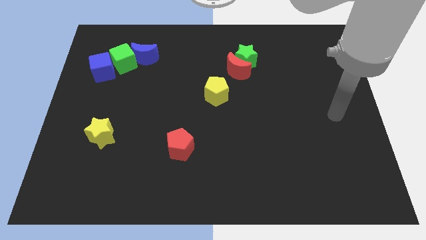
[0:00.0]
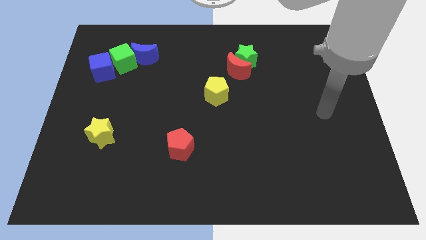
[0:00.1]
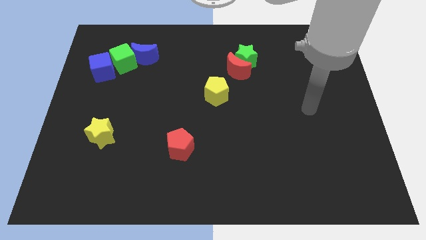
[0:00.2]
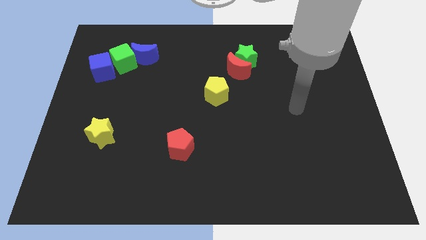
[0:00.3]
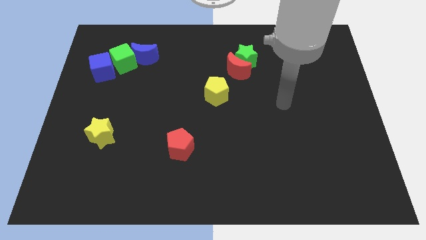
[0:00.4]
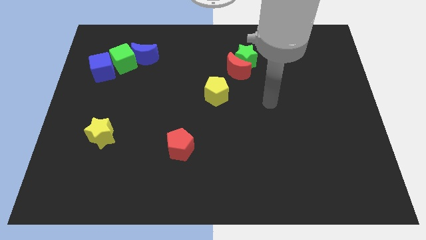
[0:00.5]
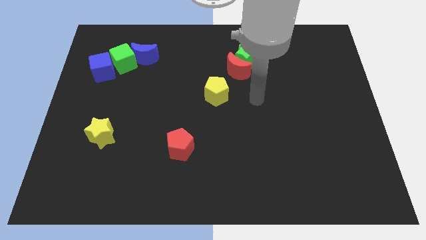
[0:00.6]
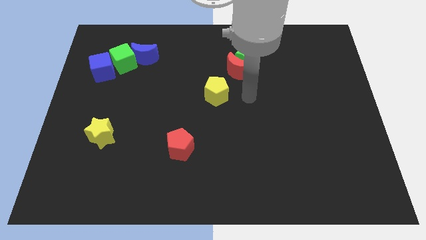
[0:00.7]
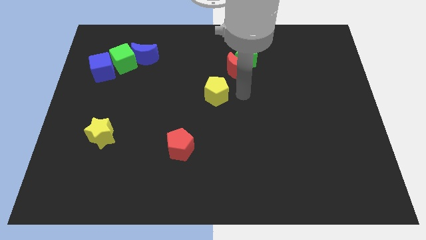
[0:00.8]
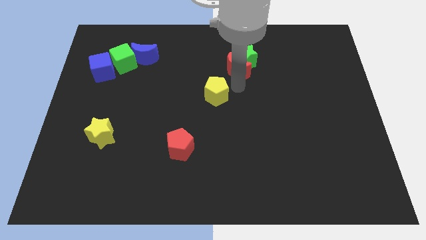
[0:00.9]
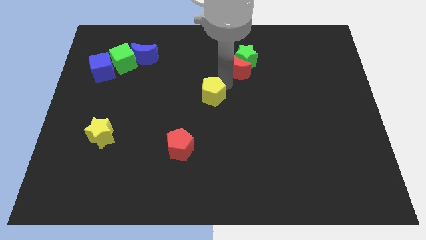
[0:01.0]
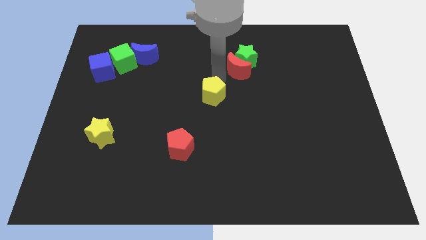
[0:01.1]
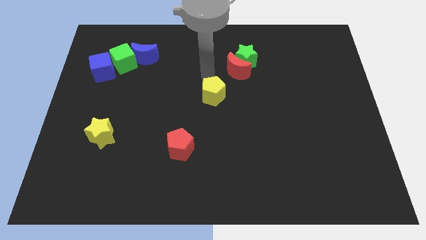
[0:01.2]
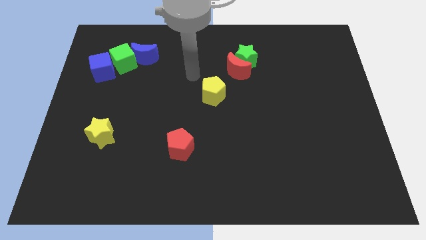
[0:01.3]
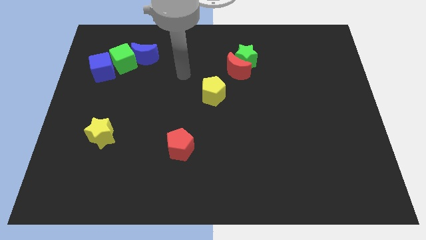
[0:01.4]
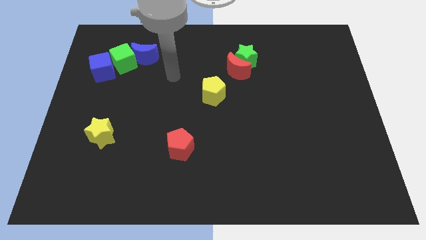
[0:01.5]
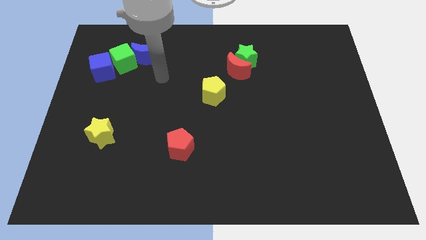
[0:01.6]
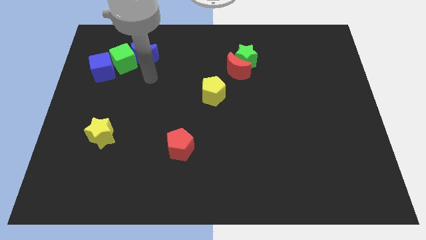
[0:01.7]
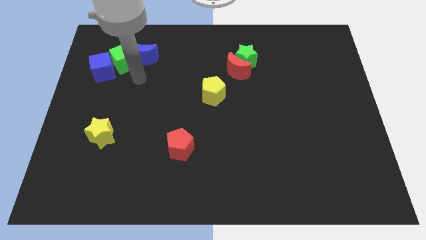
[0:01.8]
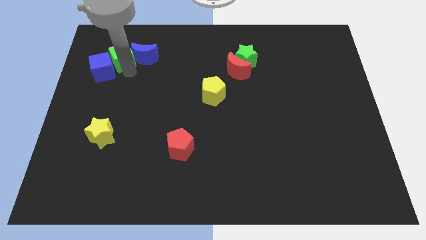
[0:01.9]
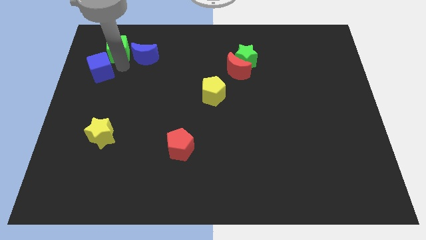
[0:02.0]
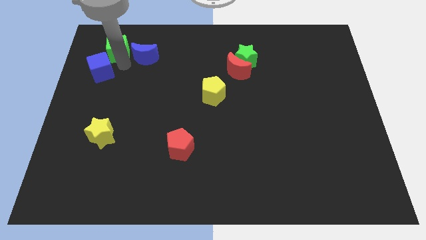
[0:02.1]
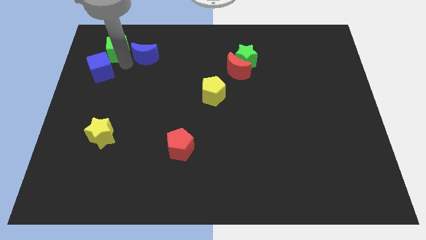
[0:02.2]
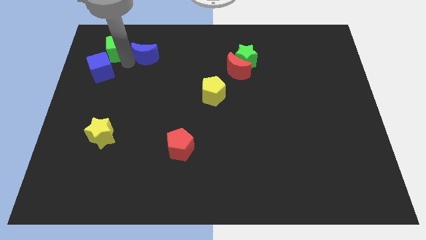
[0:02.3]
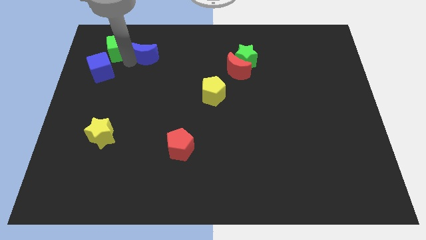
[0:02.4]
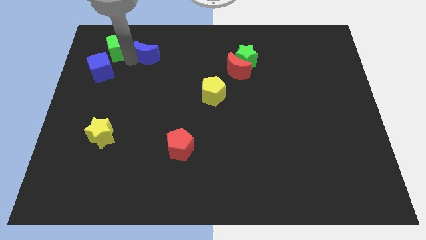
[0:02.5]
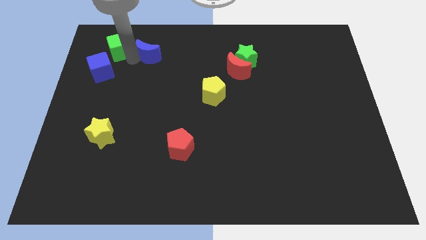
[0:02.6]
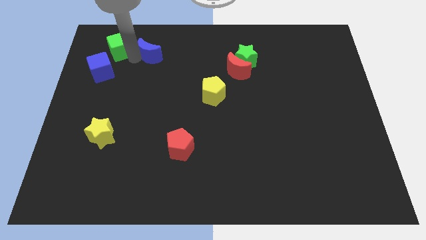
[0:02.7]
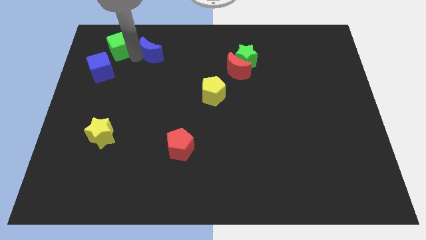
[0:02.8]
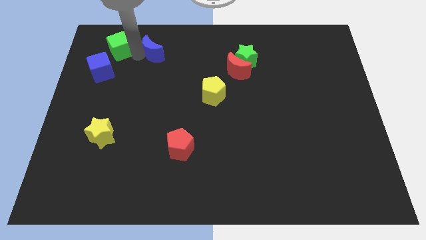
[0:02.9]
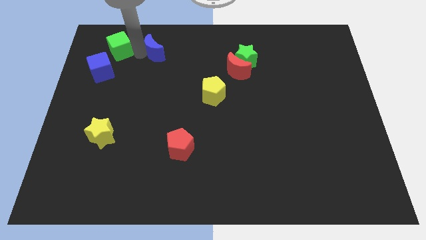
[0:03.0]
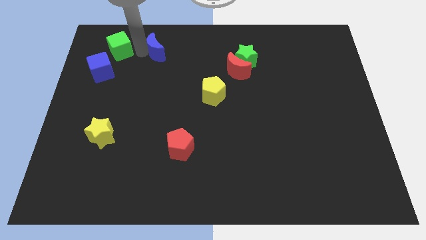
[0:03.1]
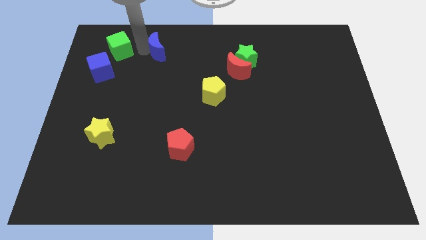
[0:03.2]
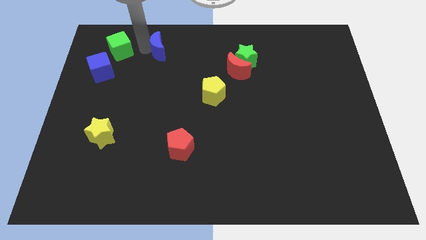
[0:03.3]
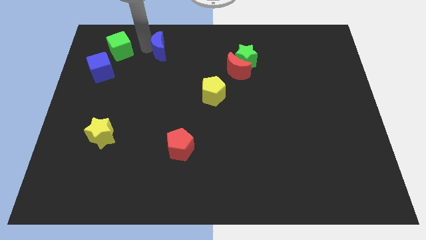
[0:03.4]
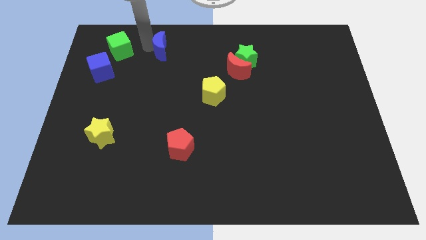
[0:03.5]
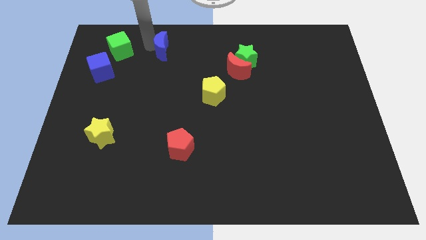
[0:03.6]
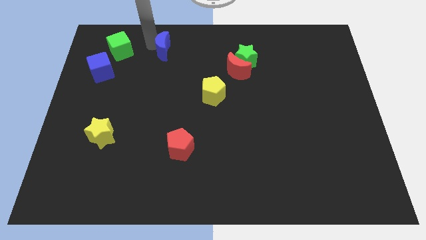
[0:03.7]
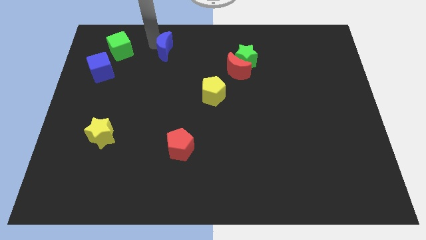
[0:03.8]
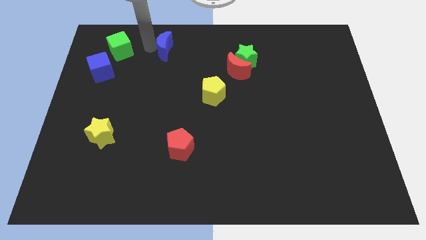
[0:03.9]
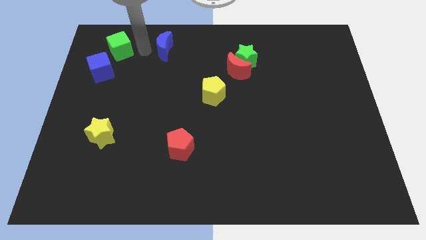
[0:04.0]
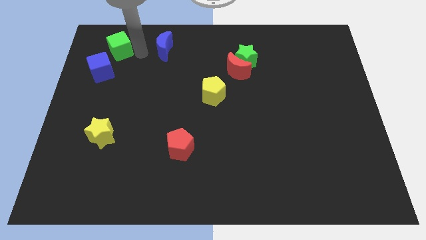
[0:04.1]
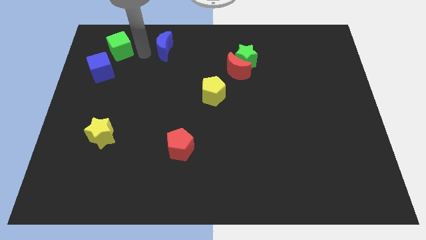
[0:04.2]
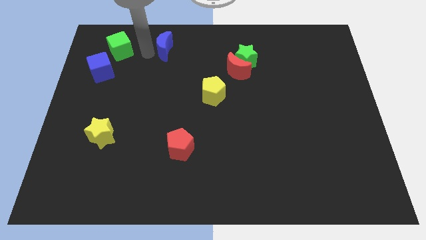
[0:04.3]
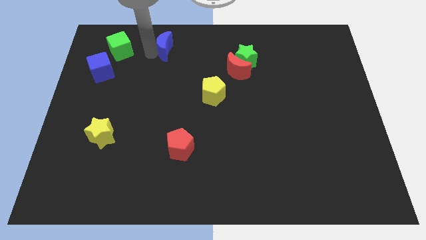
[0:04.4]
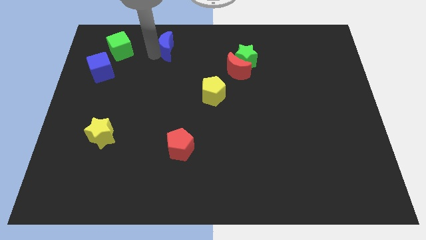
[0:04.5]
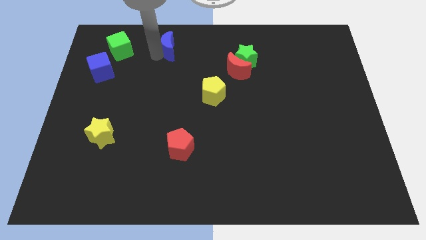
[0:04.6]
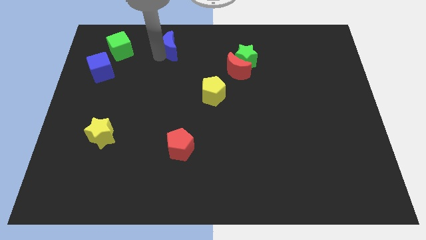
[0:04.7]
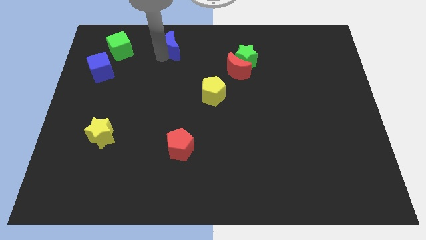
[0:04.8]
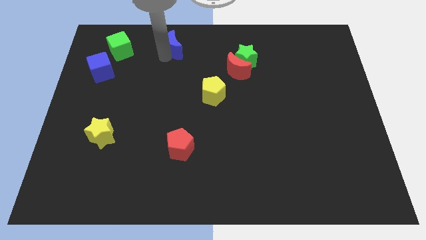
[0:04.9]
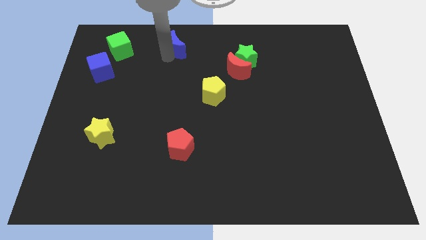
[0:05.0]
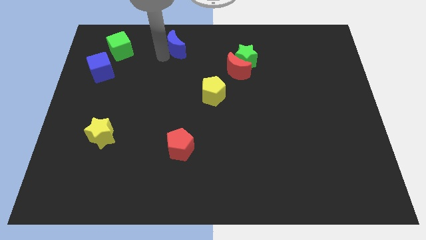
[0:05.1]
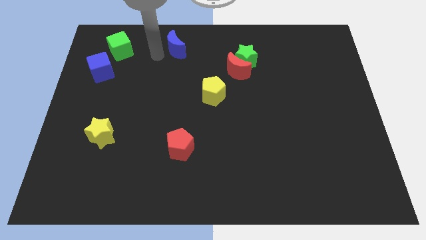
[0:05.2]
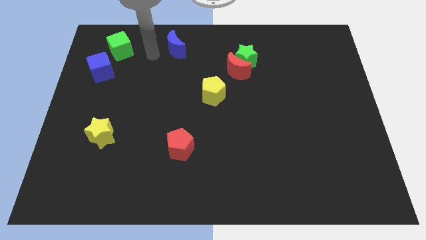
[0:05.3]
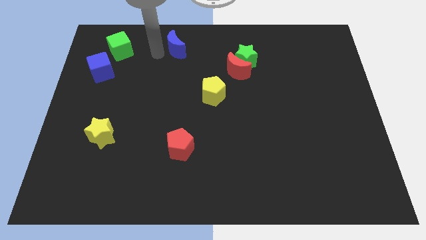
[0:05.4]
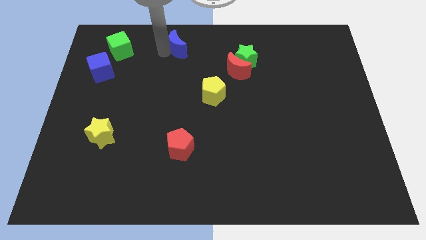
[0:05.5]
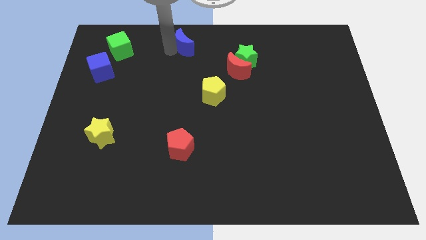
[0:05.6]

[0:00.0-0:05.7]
push the blue moon to the top

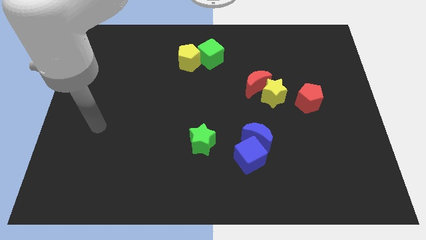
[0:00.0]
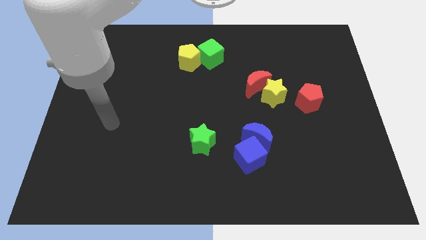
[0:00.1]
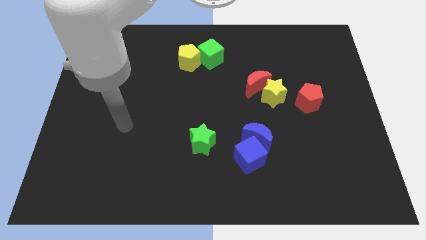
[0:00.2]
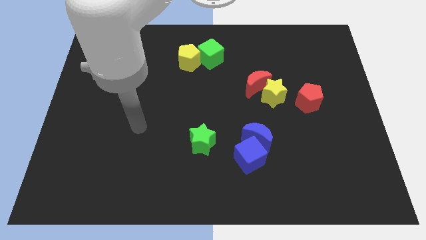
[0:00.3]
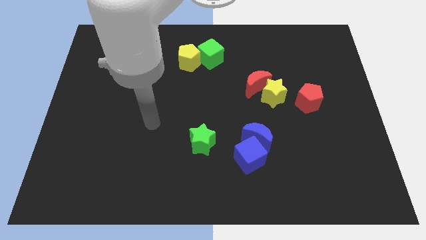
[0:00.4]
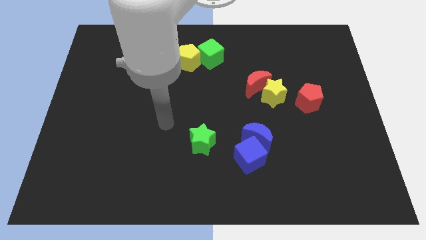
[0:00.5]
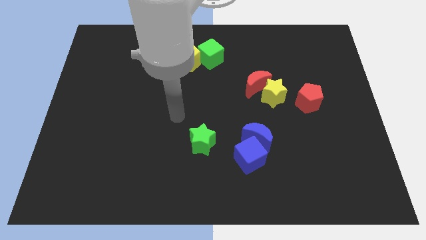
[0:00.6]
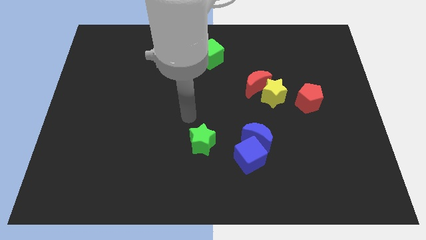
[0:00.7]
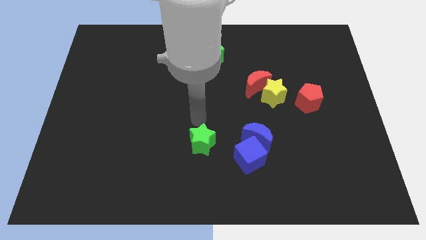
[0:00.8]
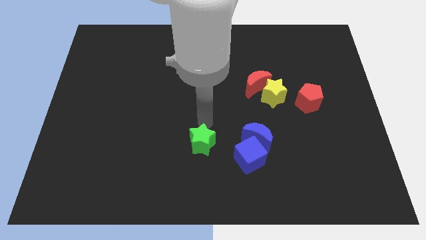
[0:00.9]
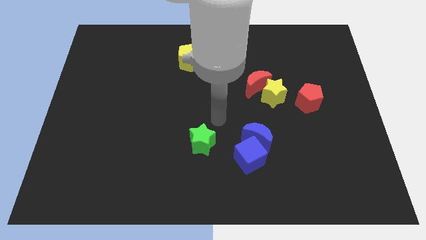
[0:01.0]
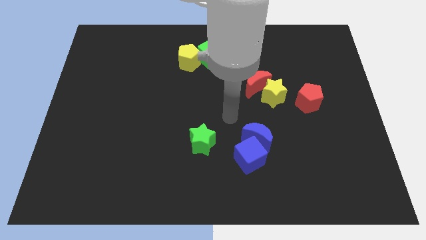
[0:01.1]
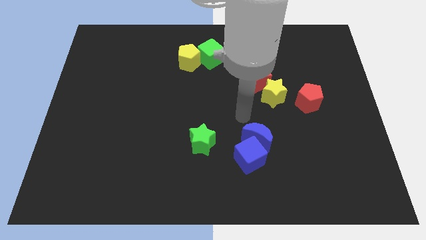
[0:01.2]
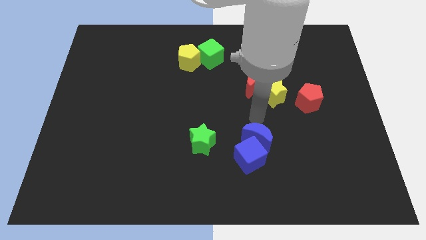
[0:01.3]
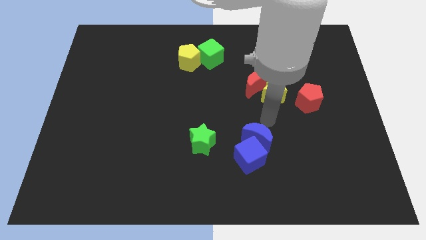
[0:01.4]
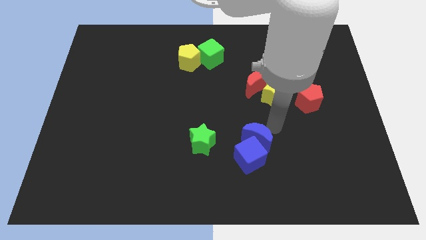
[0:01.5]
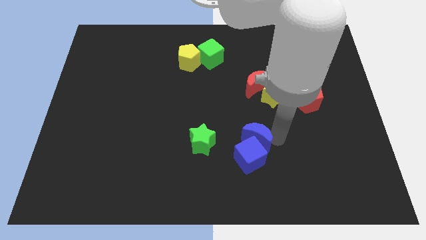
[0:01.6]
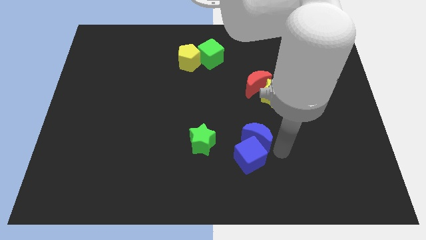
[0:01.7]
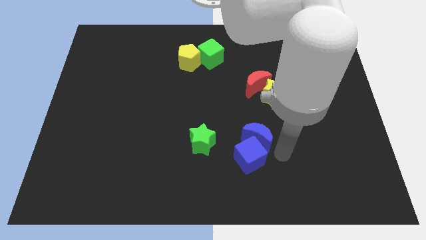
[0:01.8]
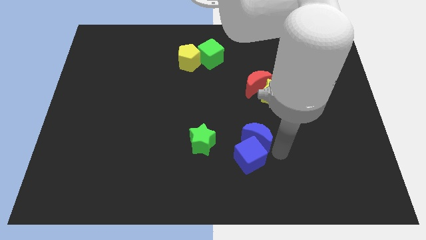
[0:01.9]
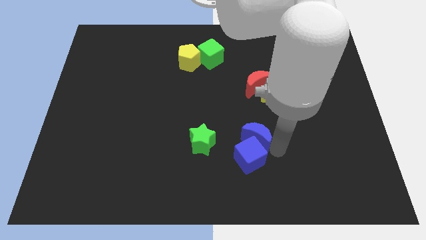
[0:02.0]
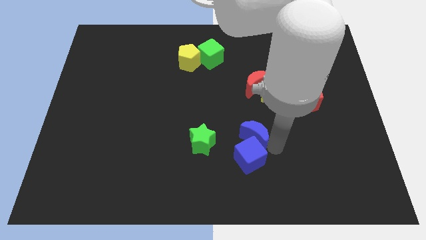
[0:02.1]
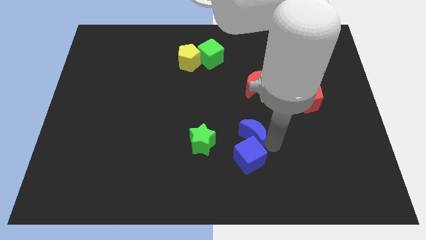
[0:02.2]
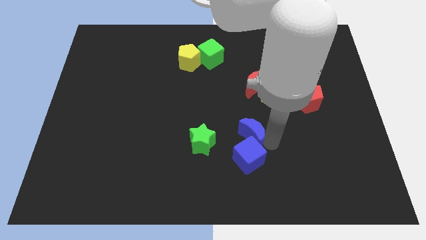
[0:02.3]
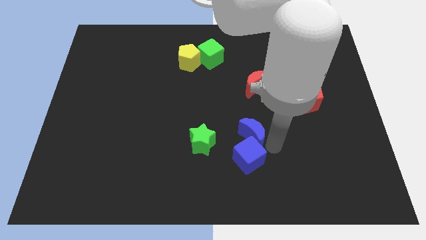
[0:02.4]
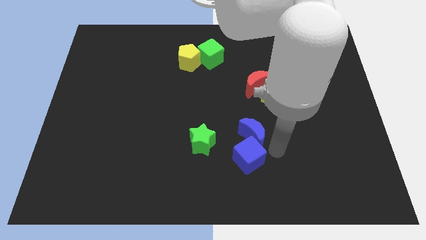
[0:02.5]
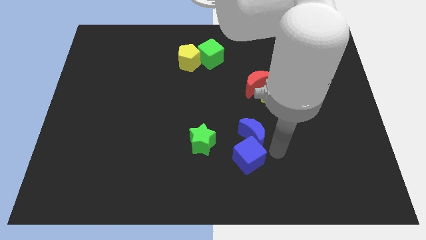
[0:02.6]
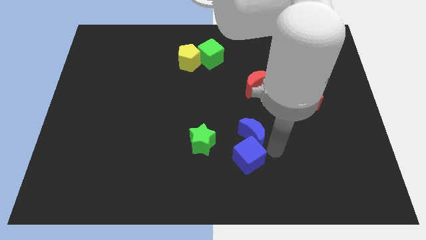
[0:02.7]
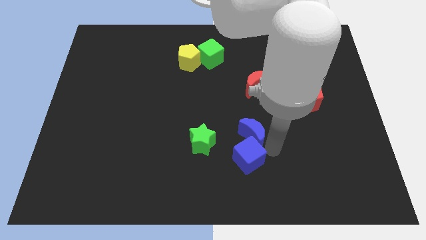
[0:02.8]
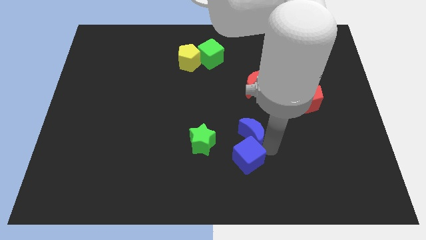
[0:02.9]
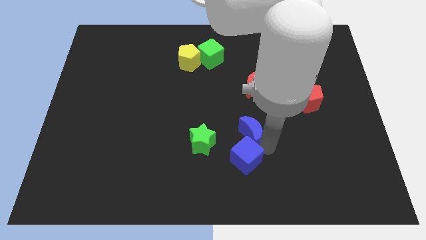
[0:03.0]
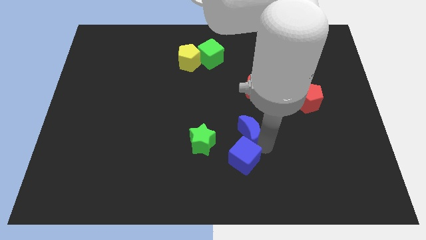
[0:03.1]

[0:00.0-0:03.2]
slide the blue moon to the center of the board
